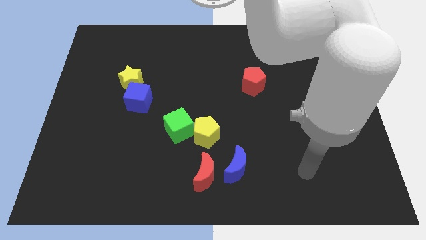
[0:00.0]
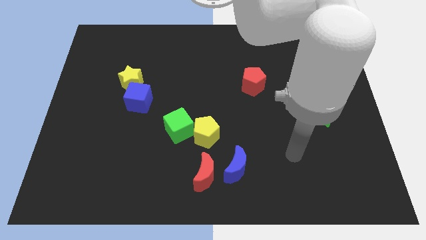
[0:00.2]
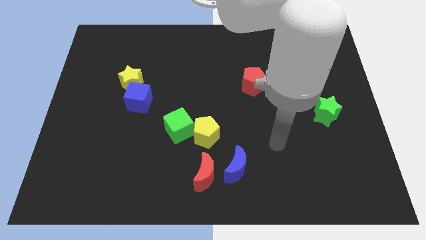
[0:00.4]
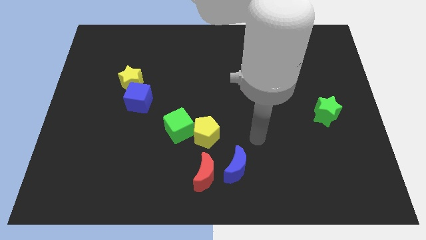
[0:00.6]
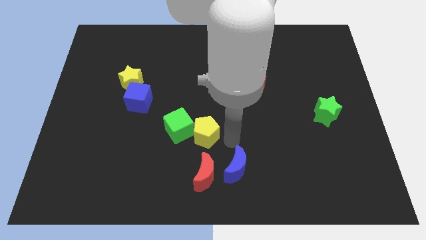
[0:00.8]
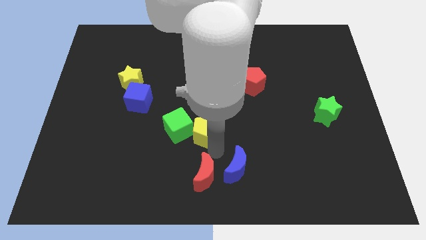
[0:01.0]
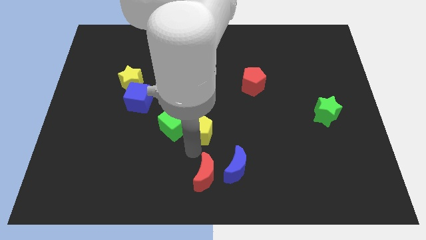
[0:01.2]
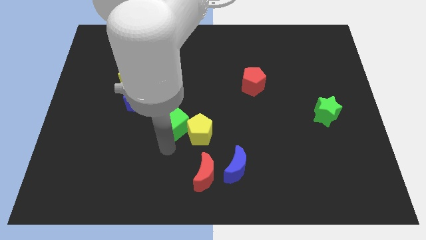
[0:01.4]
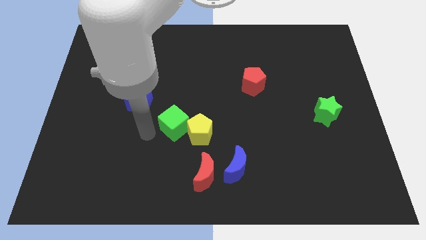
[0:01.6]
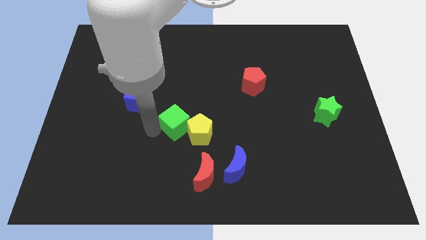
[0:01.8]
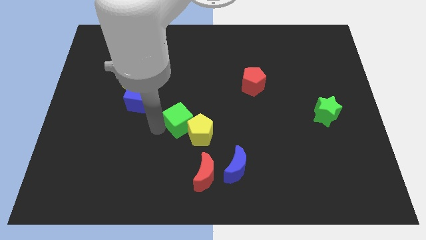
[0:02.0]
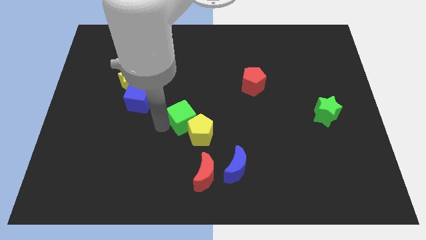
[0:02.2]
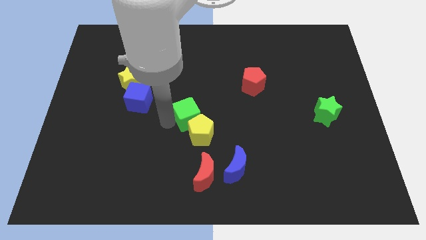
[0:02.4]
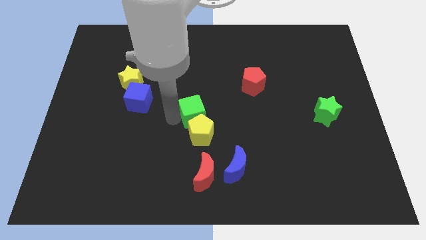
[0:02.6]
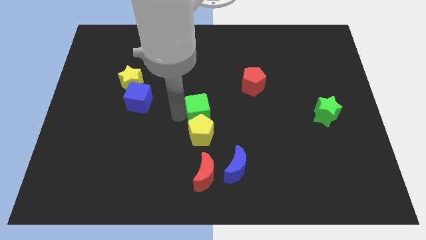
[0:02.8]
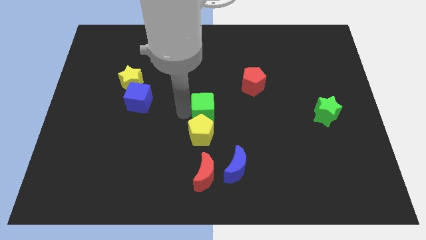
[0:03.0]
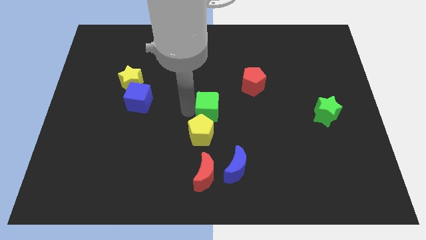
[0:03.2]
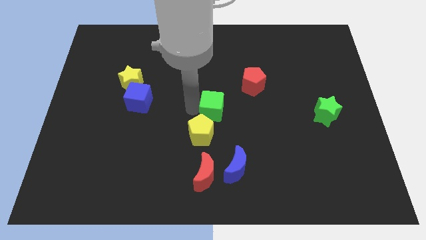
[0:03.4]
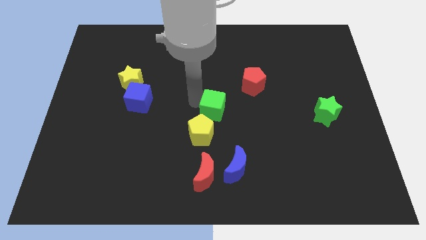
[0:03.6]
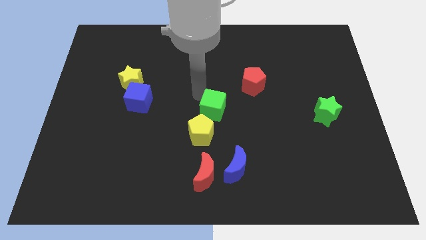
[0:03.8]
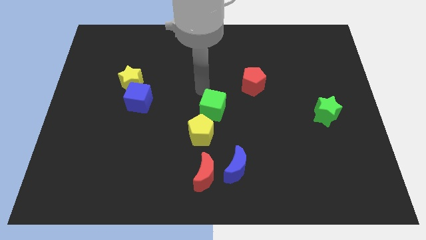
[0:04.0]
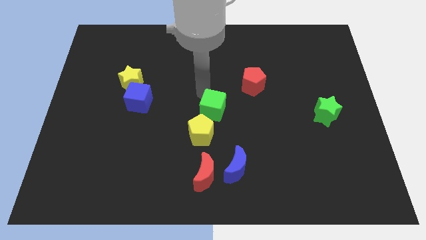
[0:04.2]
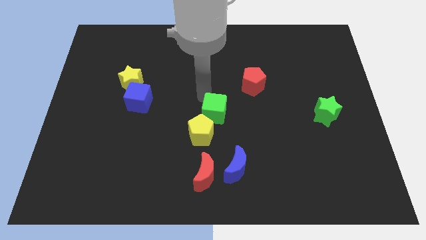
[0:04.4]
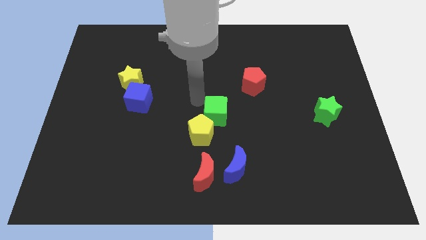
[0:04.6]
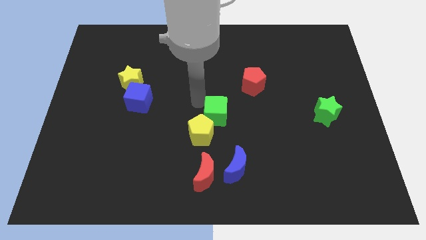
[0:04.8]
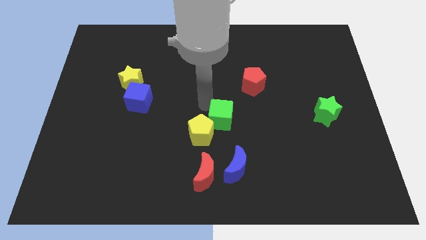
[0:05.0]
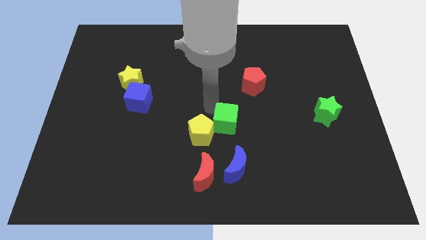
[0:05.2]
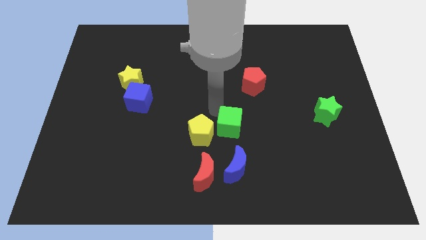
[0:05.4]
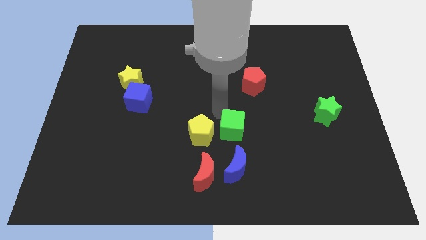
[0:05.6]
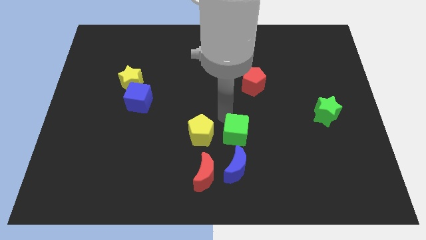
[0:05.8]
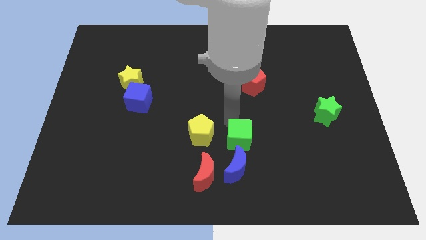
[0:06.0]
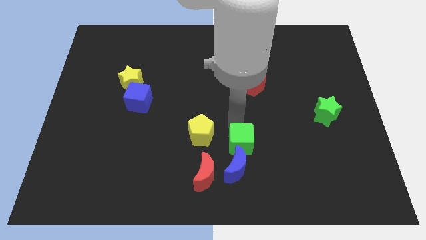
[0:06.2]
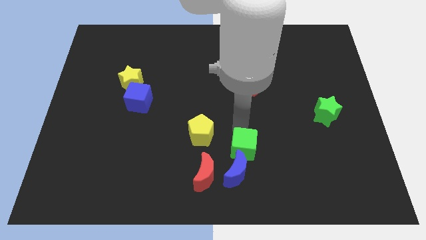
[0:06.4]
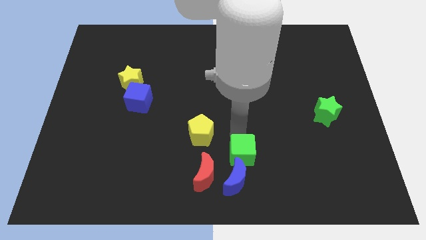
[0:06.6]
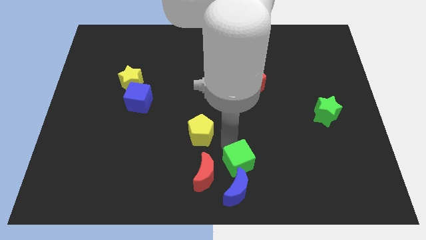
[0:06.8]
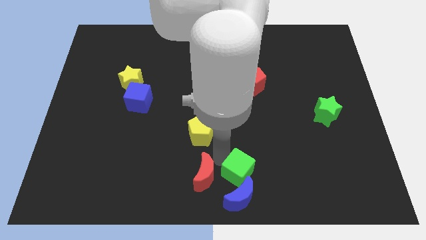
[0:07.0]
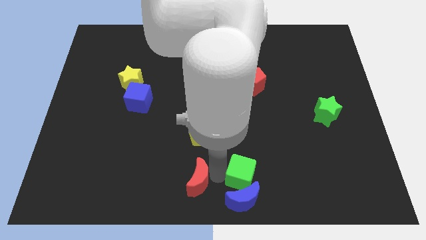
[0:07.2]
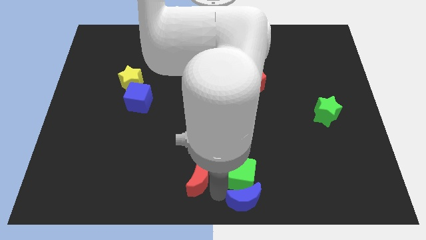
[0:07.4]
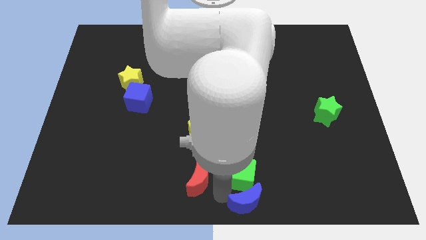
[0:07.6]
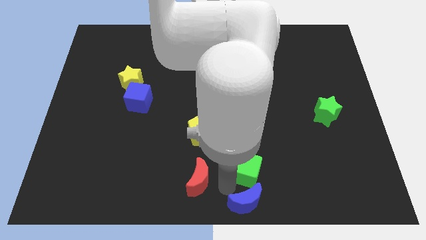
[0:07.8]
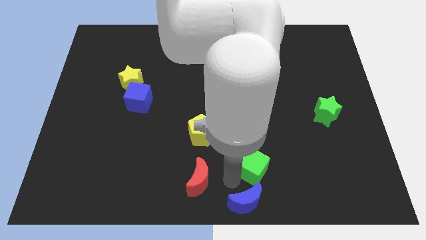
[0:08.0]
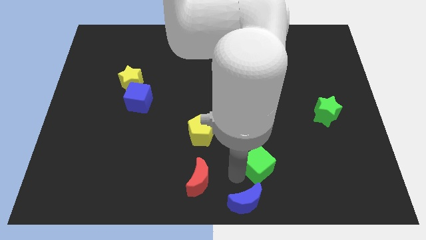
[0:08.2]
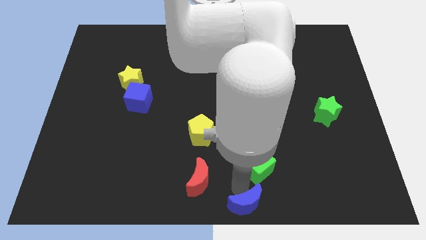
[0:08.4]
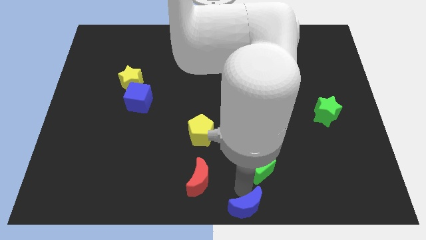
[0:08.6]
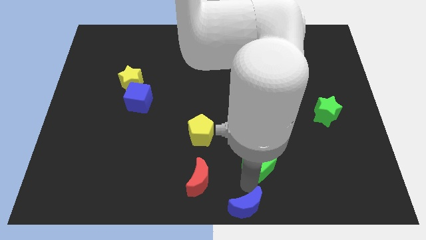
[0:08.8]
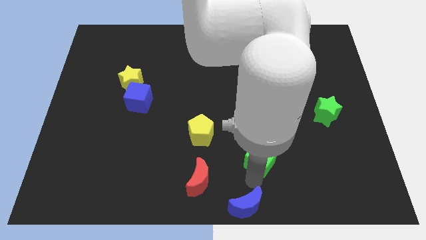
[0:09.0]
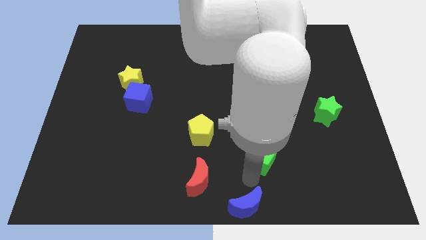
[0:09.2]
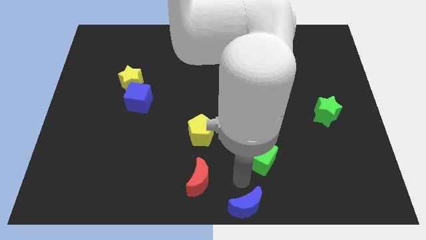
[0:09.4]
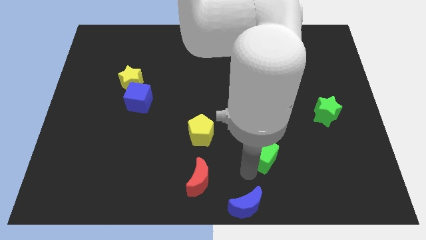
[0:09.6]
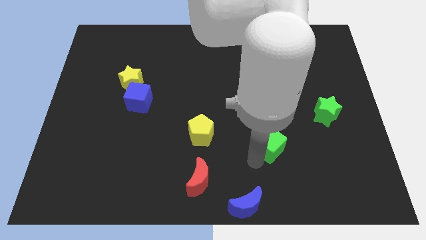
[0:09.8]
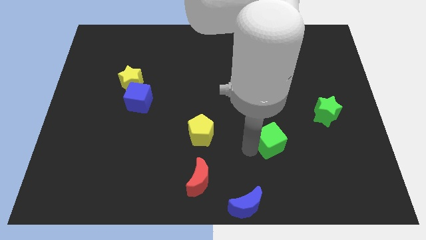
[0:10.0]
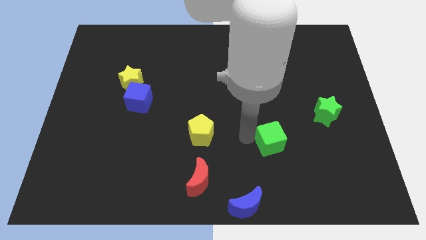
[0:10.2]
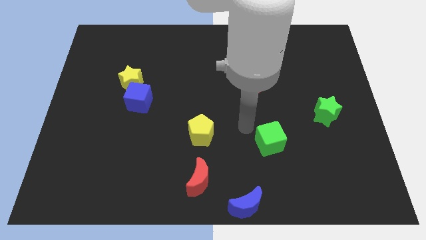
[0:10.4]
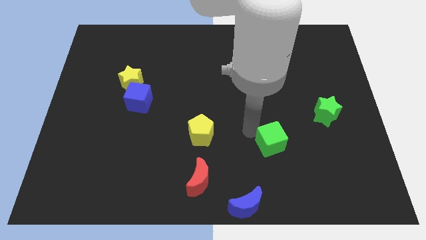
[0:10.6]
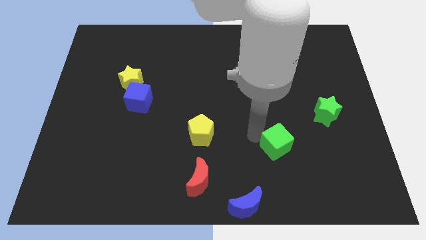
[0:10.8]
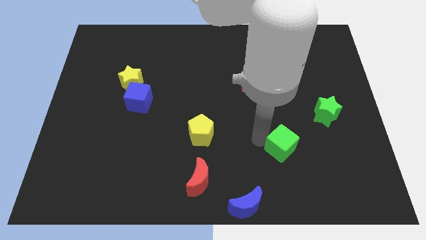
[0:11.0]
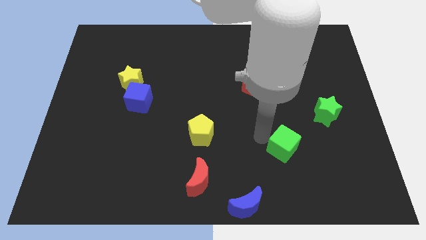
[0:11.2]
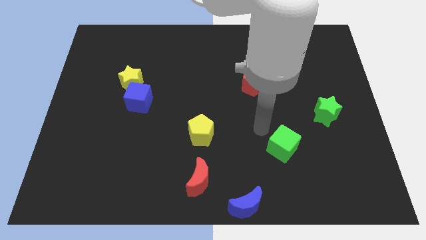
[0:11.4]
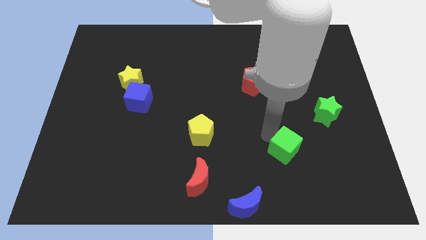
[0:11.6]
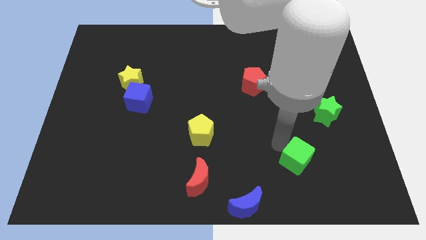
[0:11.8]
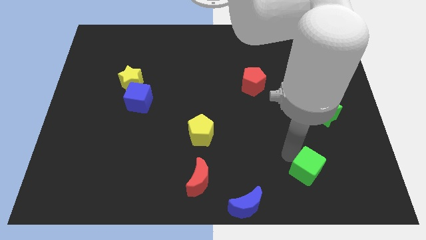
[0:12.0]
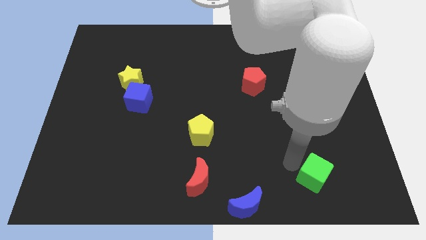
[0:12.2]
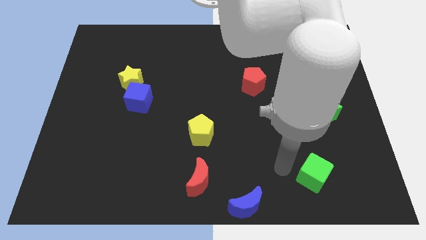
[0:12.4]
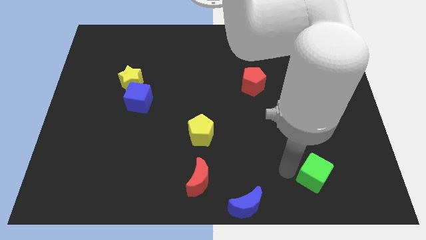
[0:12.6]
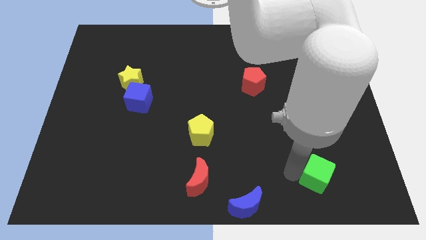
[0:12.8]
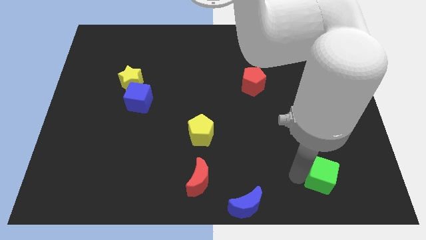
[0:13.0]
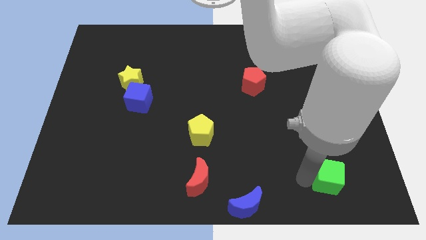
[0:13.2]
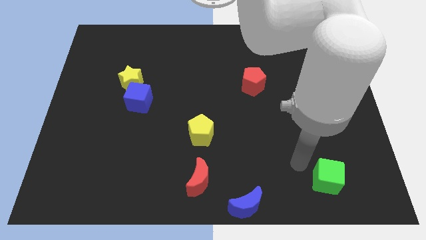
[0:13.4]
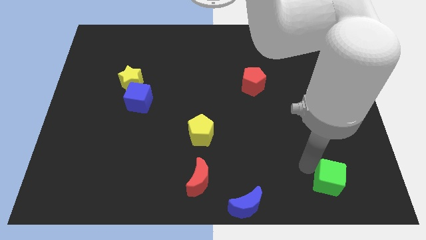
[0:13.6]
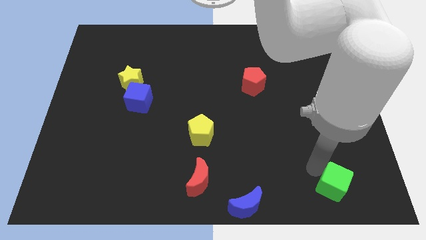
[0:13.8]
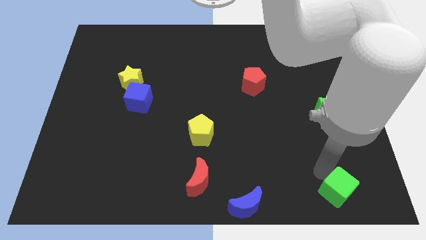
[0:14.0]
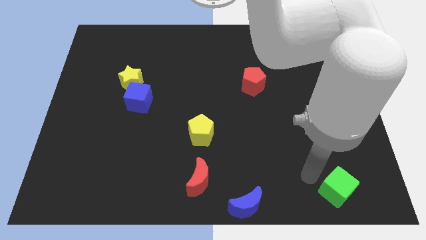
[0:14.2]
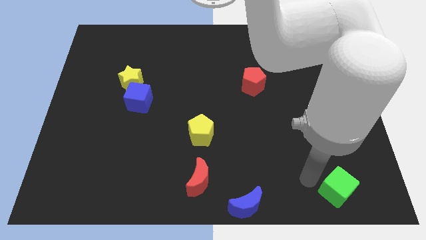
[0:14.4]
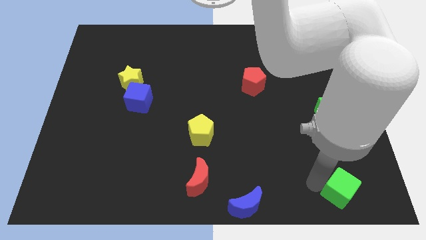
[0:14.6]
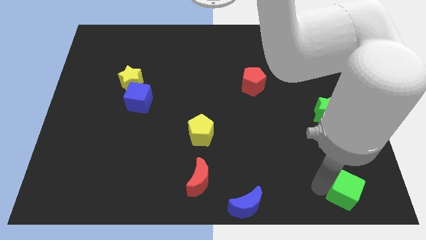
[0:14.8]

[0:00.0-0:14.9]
slide the green cube to the bottom right of the board
